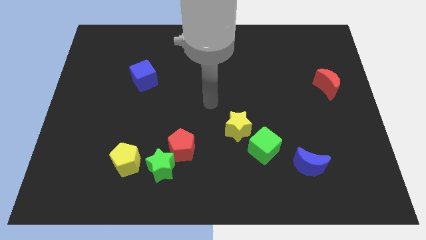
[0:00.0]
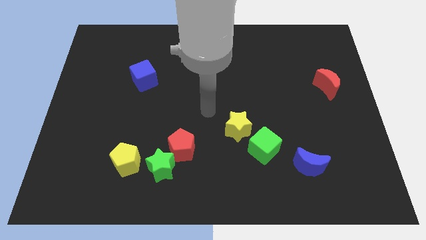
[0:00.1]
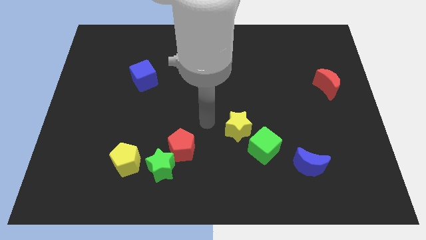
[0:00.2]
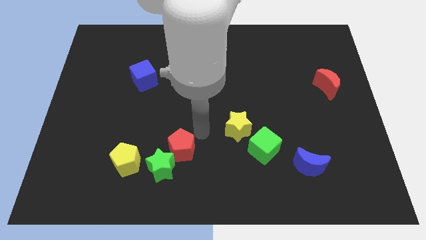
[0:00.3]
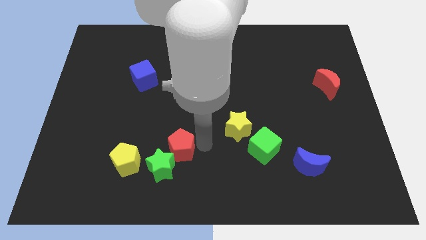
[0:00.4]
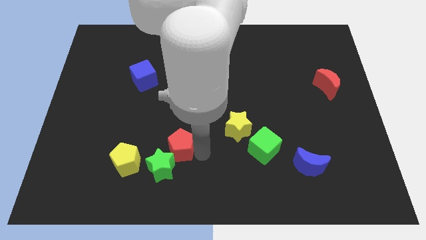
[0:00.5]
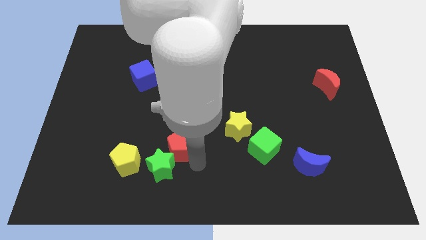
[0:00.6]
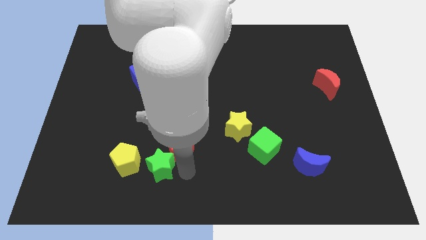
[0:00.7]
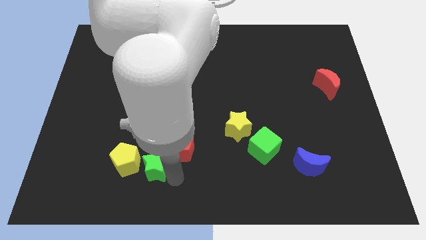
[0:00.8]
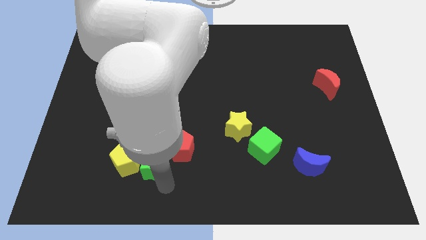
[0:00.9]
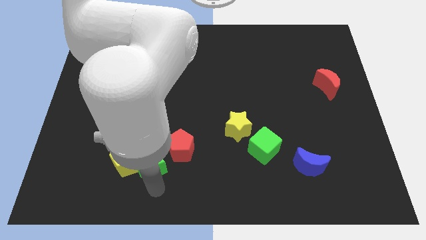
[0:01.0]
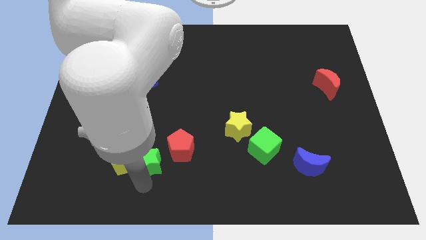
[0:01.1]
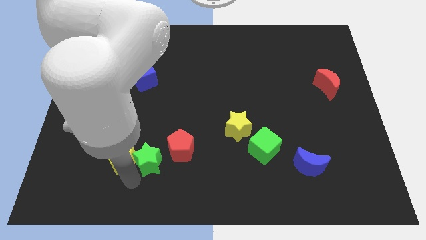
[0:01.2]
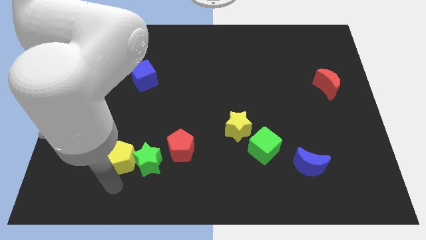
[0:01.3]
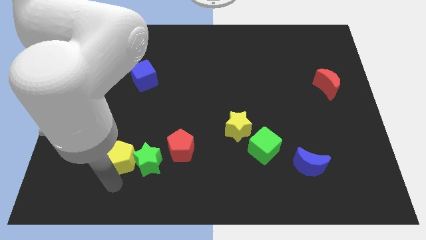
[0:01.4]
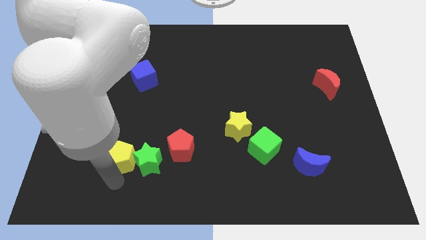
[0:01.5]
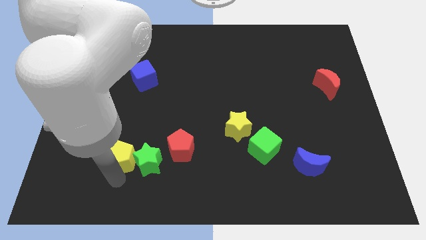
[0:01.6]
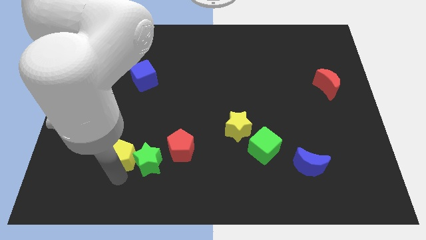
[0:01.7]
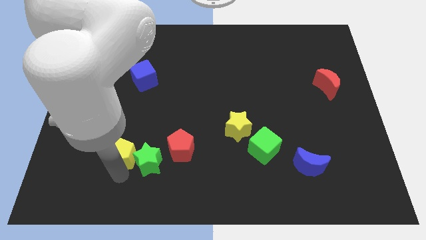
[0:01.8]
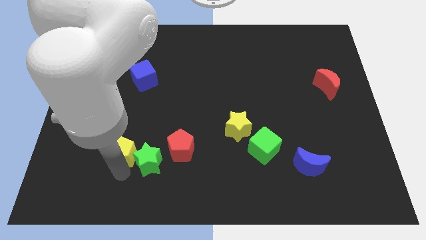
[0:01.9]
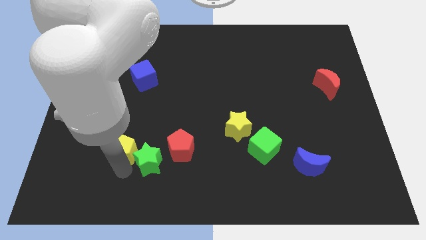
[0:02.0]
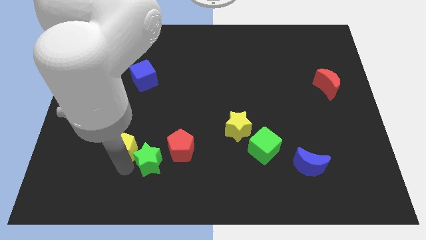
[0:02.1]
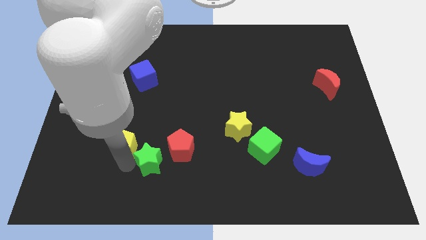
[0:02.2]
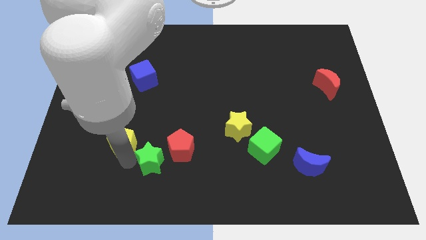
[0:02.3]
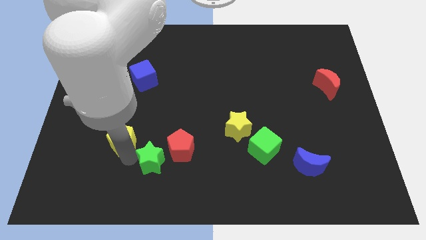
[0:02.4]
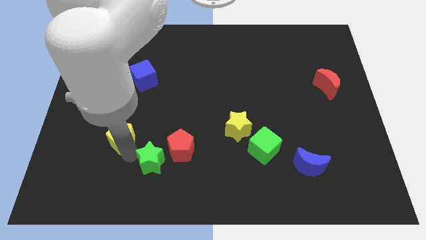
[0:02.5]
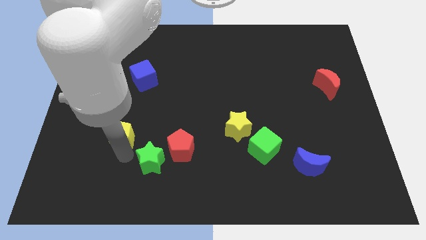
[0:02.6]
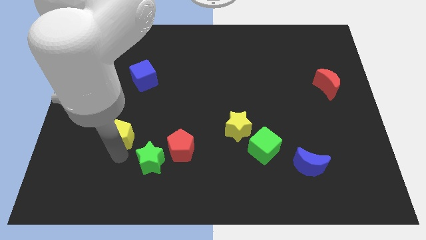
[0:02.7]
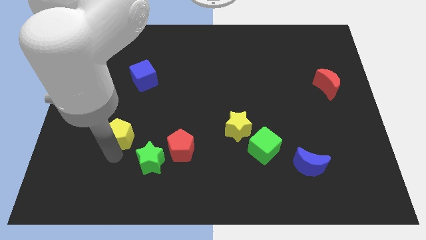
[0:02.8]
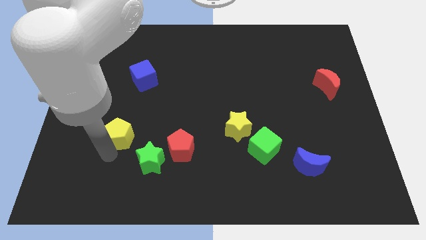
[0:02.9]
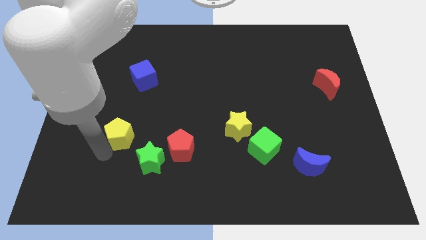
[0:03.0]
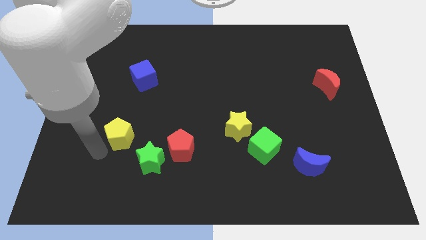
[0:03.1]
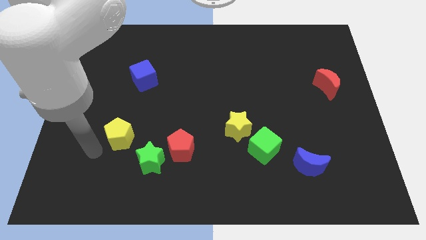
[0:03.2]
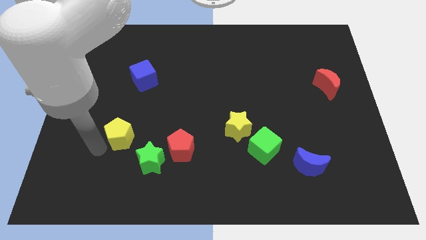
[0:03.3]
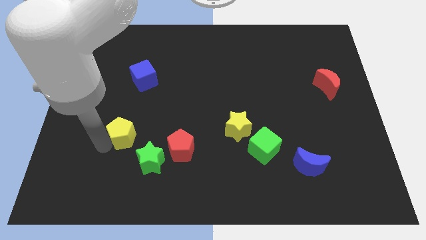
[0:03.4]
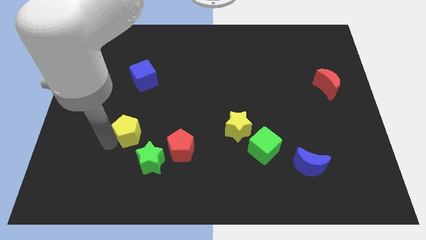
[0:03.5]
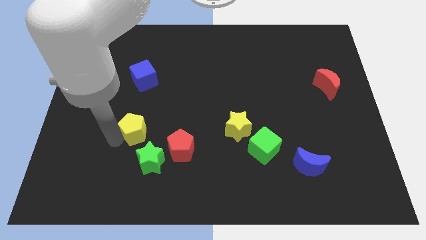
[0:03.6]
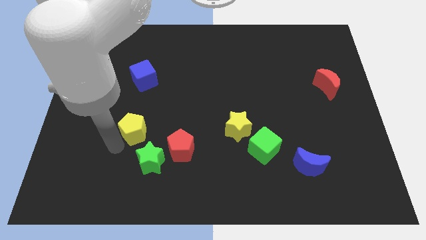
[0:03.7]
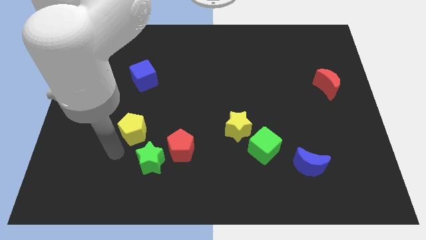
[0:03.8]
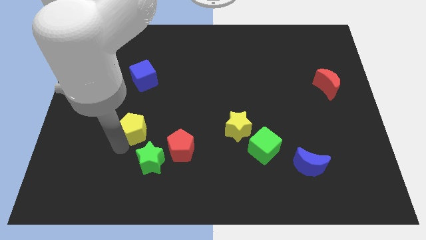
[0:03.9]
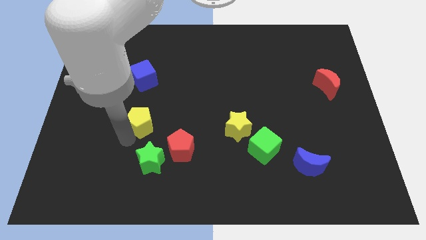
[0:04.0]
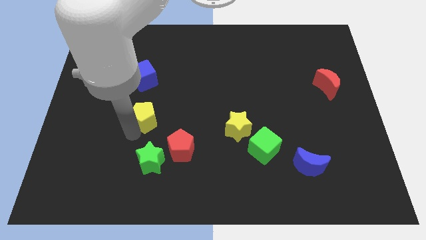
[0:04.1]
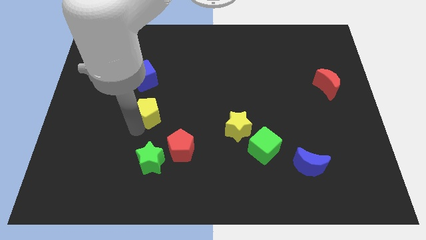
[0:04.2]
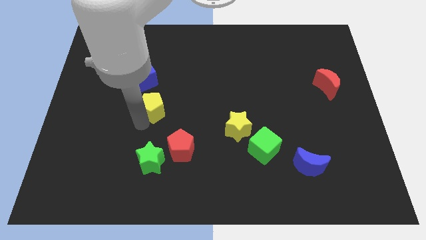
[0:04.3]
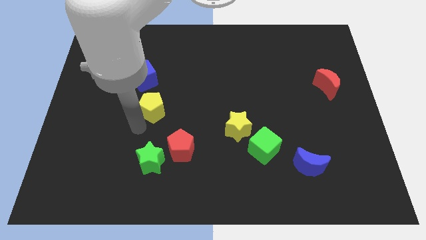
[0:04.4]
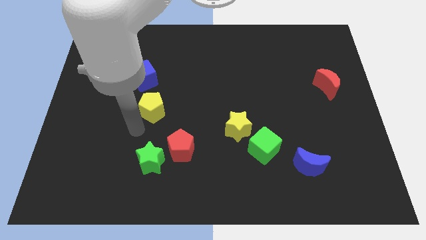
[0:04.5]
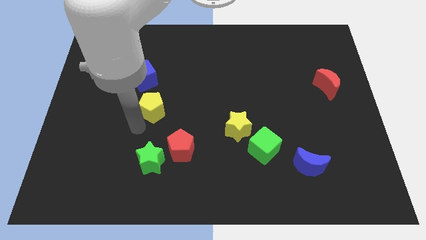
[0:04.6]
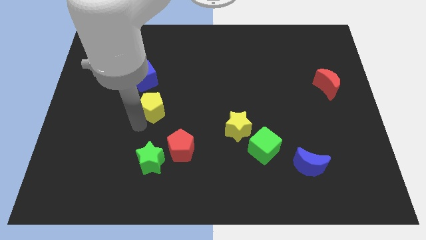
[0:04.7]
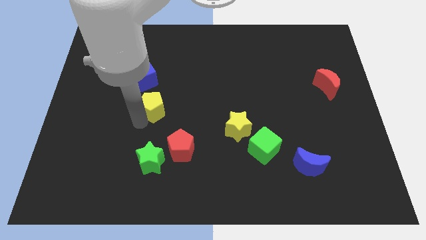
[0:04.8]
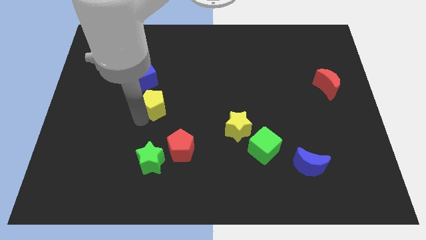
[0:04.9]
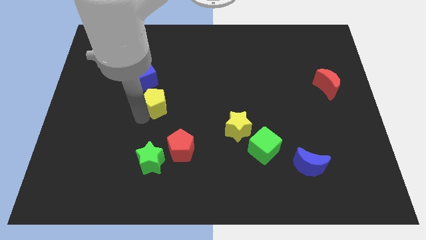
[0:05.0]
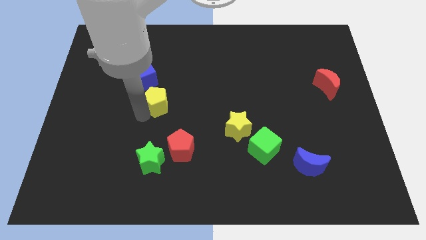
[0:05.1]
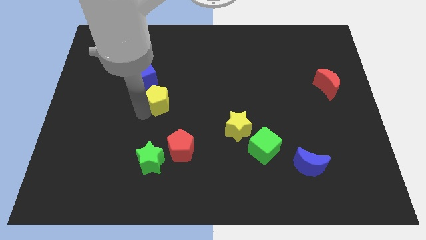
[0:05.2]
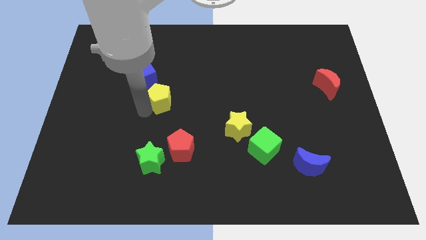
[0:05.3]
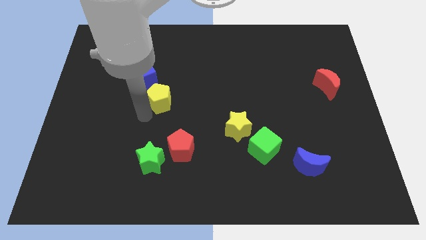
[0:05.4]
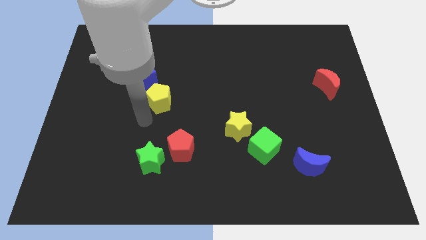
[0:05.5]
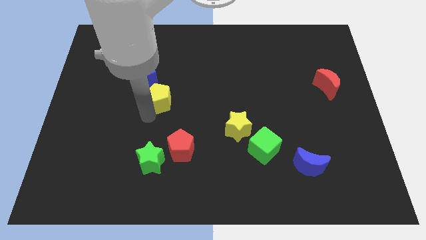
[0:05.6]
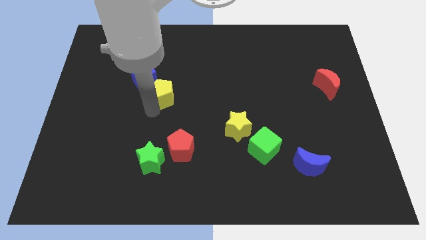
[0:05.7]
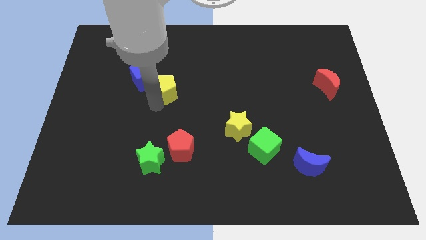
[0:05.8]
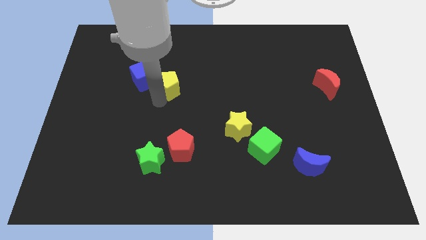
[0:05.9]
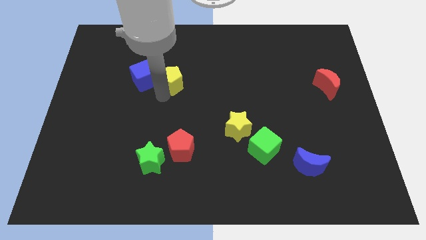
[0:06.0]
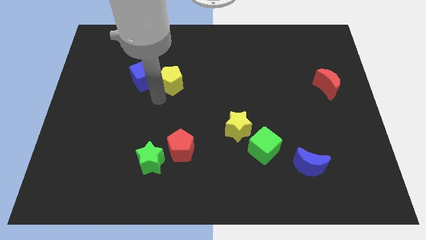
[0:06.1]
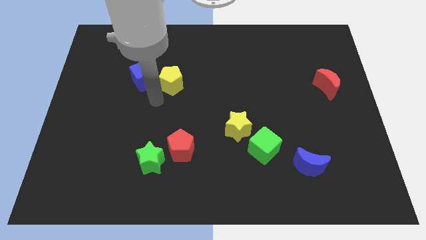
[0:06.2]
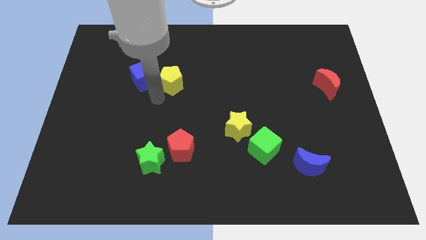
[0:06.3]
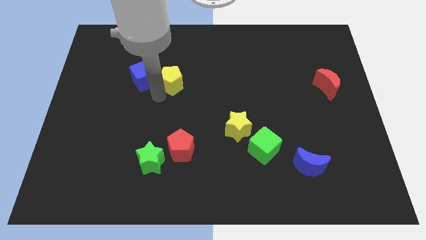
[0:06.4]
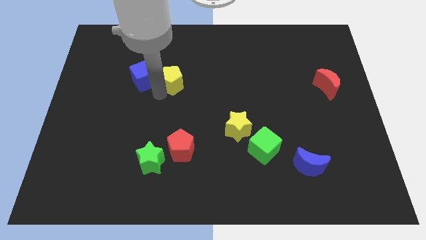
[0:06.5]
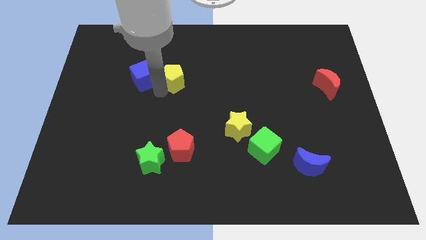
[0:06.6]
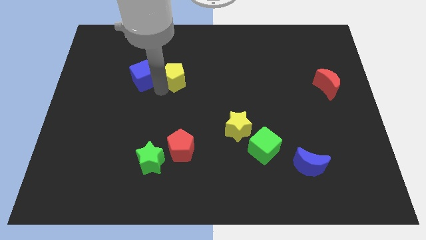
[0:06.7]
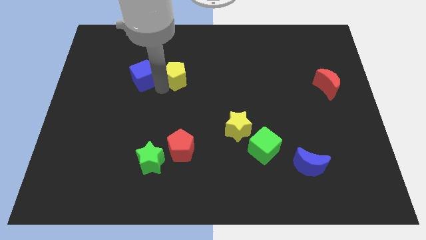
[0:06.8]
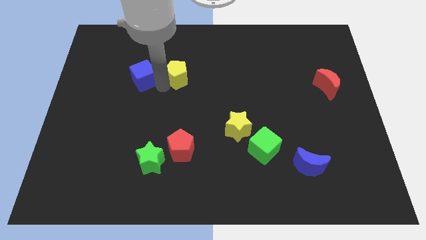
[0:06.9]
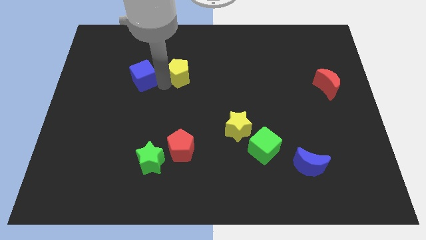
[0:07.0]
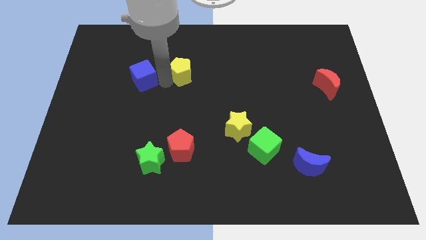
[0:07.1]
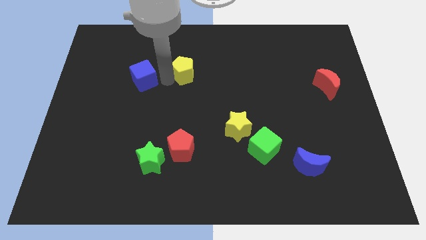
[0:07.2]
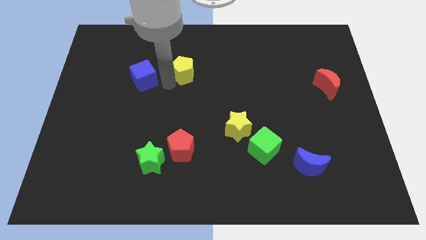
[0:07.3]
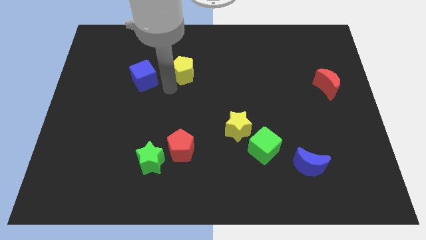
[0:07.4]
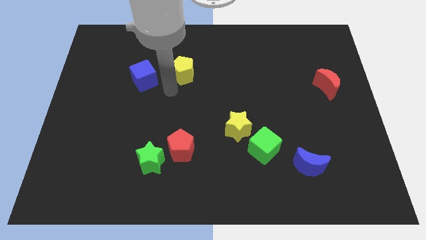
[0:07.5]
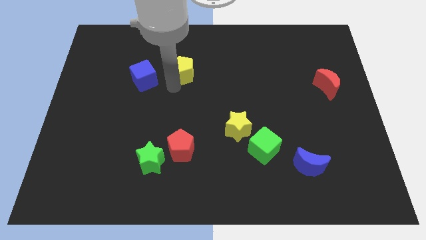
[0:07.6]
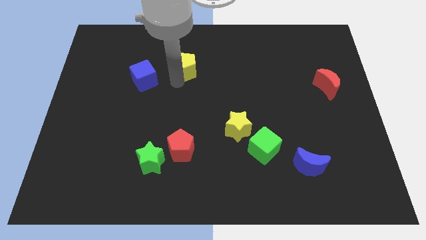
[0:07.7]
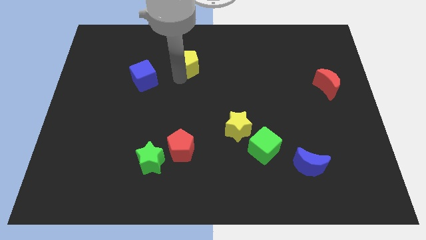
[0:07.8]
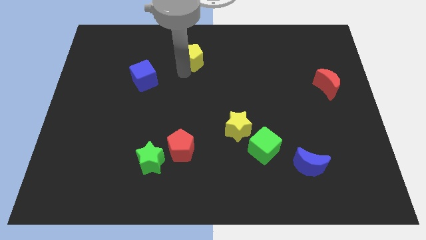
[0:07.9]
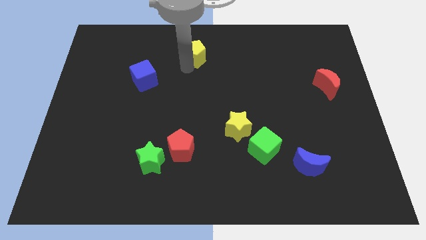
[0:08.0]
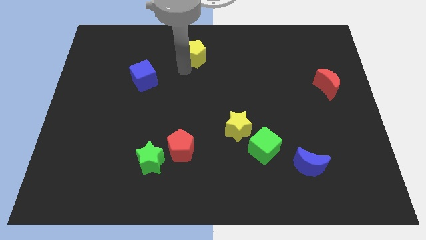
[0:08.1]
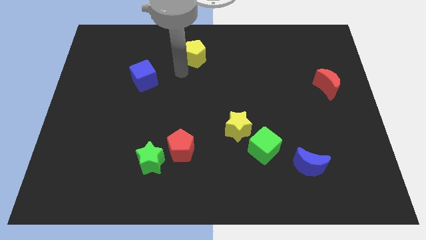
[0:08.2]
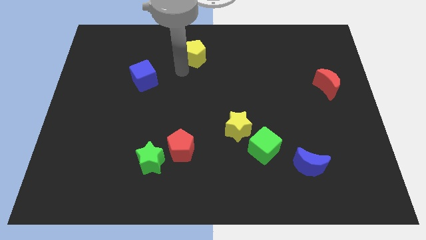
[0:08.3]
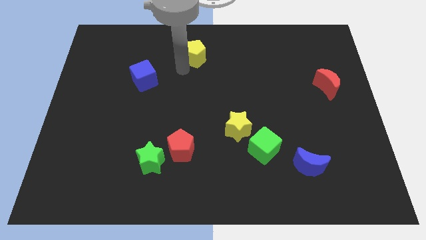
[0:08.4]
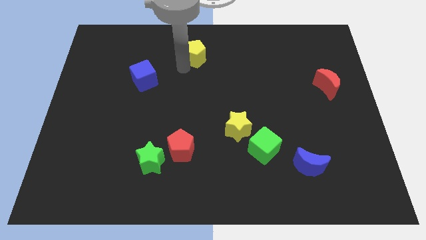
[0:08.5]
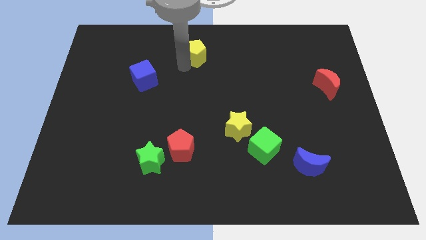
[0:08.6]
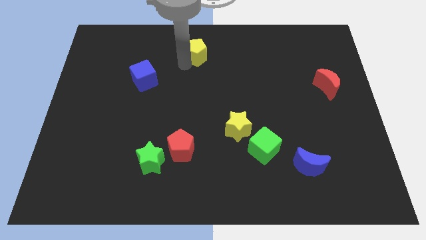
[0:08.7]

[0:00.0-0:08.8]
put the yellow pentagon to the towards your base
